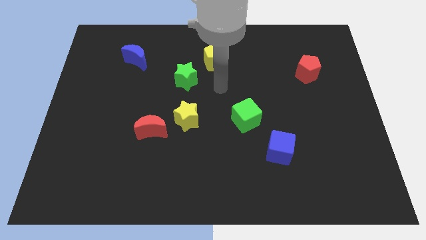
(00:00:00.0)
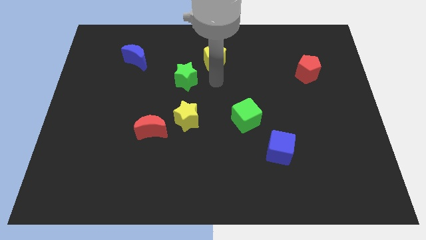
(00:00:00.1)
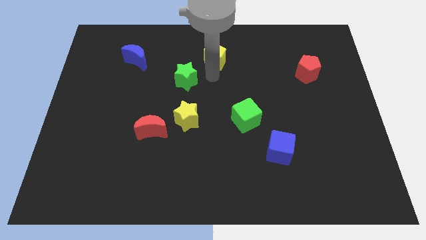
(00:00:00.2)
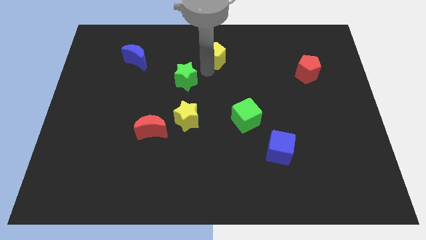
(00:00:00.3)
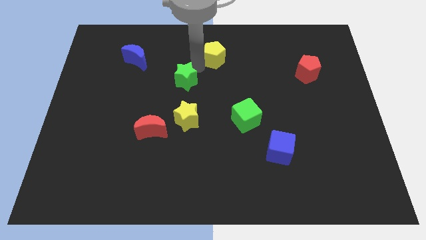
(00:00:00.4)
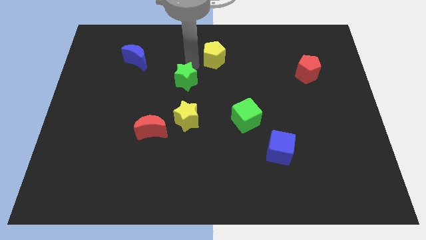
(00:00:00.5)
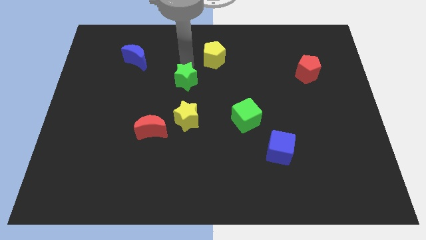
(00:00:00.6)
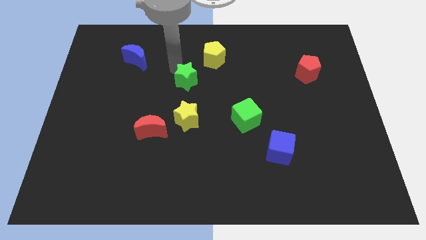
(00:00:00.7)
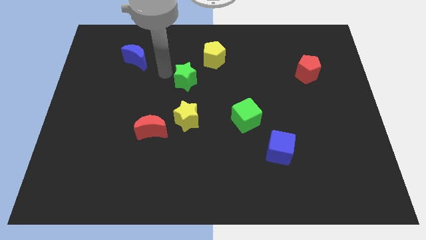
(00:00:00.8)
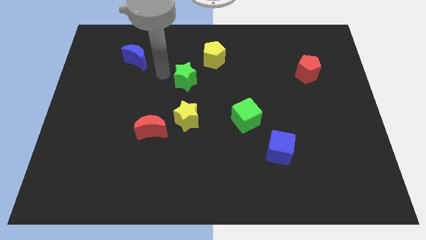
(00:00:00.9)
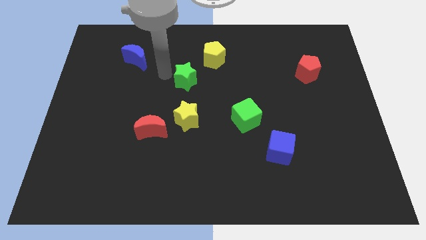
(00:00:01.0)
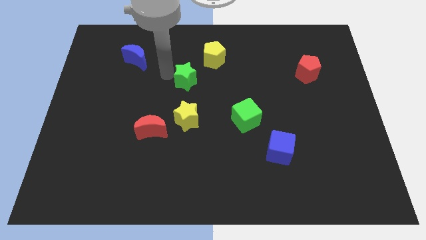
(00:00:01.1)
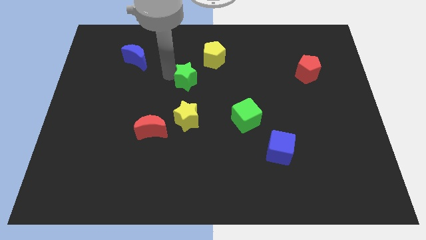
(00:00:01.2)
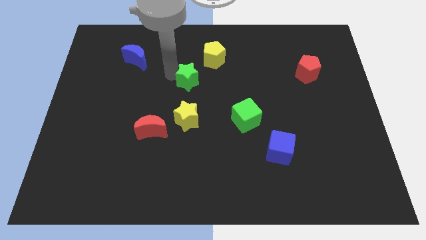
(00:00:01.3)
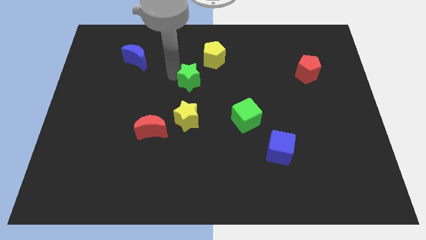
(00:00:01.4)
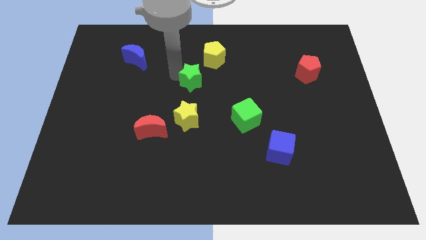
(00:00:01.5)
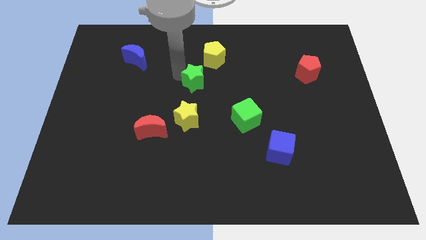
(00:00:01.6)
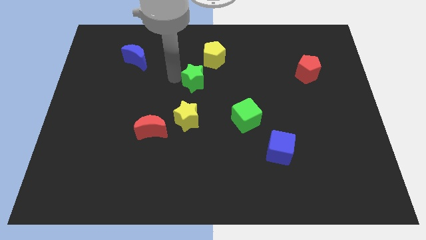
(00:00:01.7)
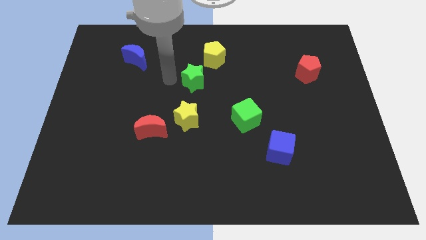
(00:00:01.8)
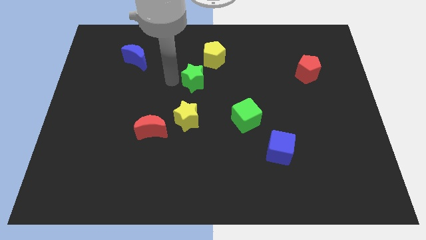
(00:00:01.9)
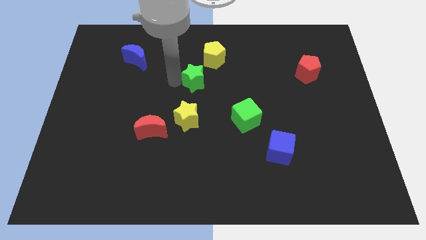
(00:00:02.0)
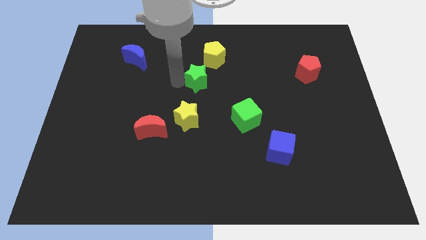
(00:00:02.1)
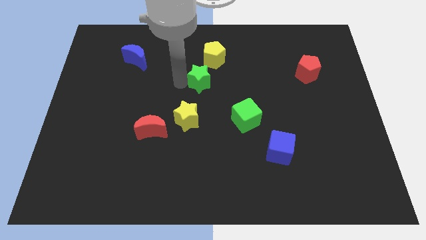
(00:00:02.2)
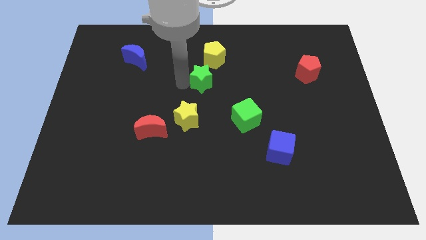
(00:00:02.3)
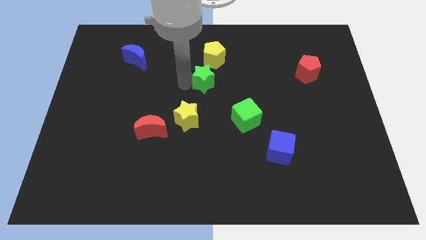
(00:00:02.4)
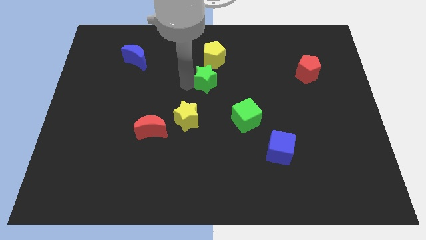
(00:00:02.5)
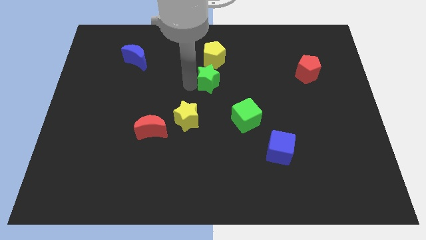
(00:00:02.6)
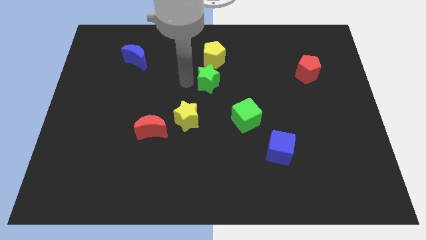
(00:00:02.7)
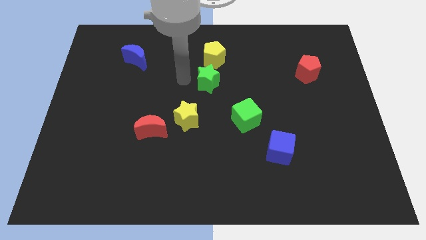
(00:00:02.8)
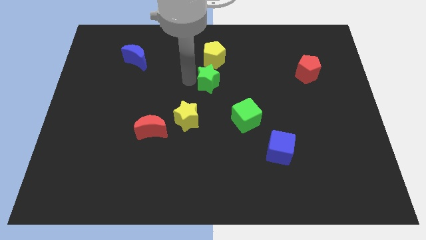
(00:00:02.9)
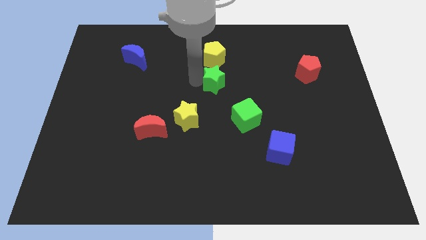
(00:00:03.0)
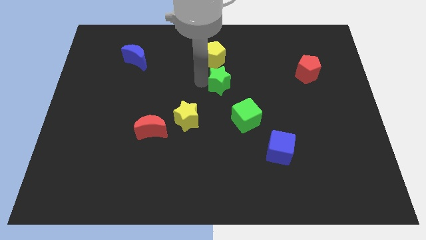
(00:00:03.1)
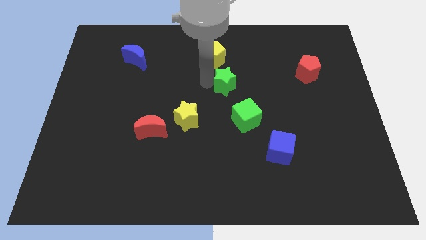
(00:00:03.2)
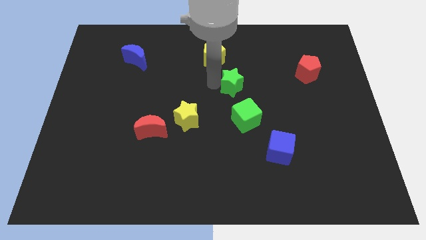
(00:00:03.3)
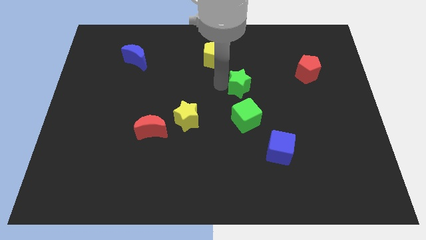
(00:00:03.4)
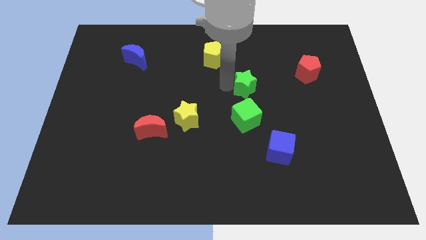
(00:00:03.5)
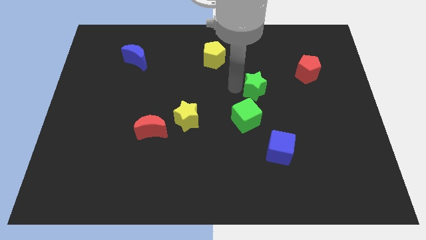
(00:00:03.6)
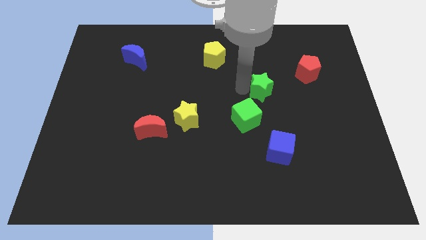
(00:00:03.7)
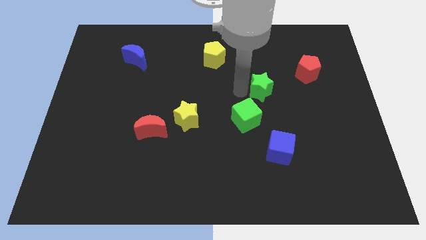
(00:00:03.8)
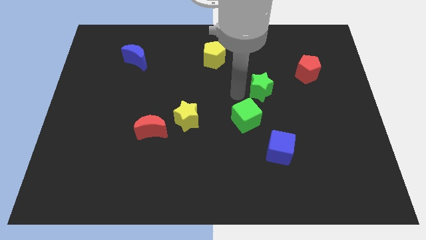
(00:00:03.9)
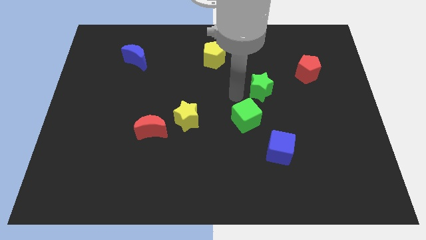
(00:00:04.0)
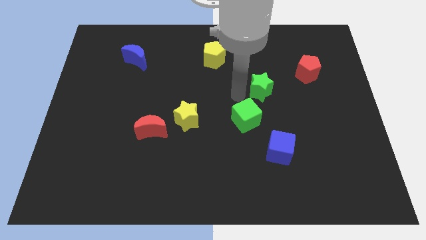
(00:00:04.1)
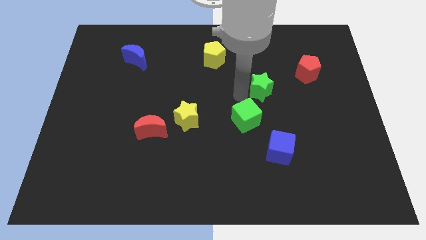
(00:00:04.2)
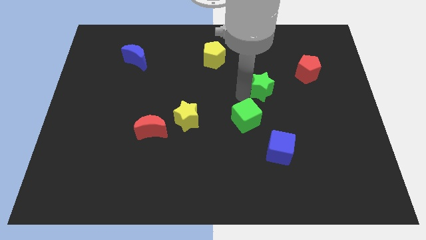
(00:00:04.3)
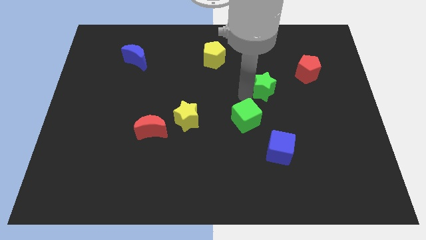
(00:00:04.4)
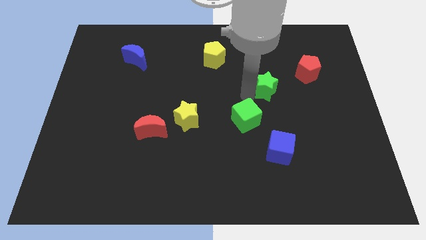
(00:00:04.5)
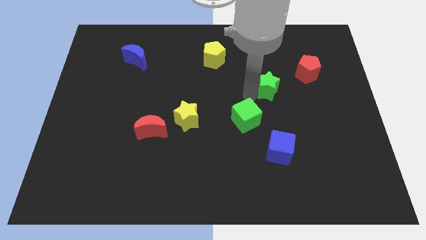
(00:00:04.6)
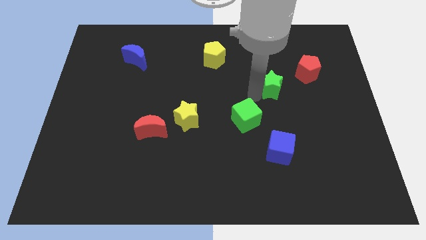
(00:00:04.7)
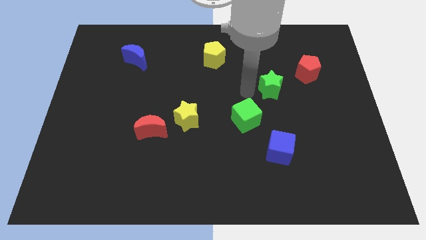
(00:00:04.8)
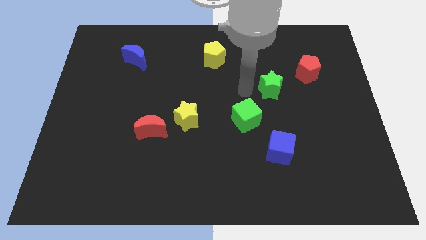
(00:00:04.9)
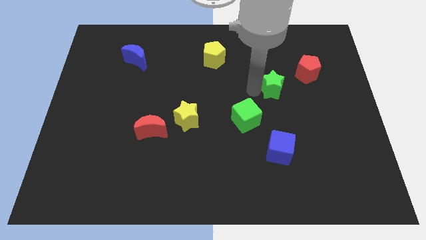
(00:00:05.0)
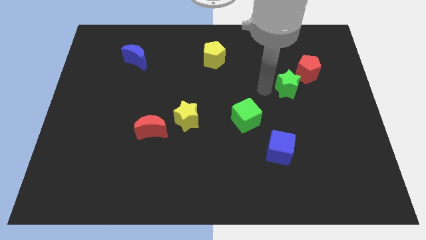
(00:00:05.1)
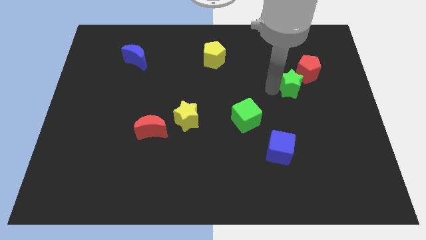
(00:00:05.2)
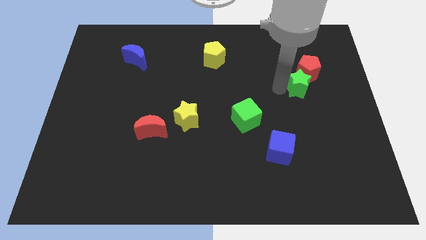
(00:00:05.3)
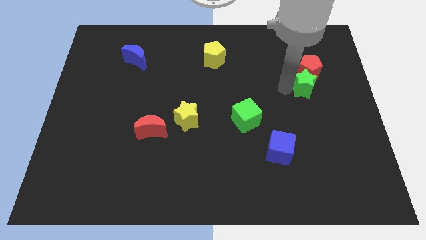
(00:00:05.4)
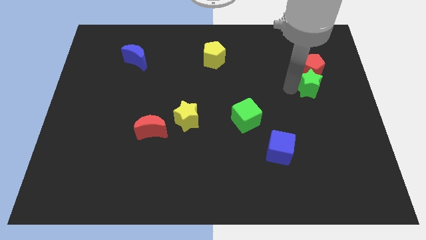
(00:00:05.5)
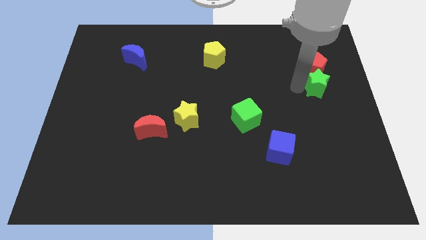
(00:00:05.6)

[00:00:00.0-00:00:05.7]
put the green star to the right side of the board

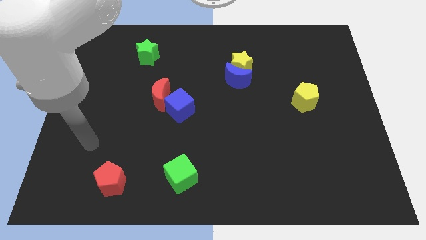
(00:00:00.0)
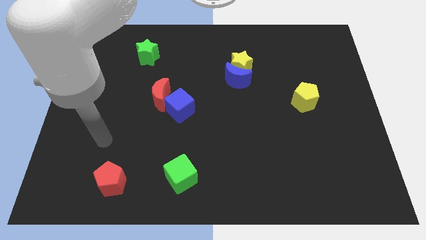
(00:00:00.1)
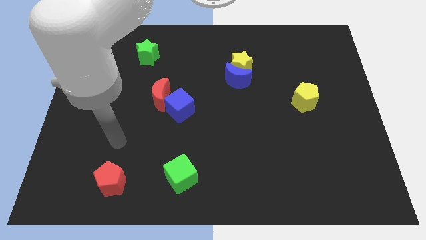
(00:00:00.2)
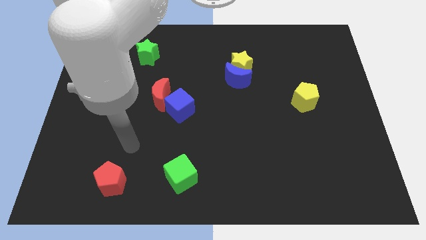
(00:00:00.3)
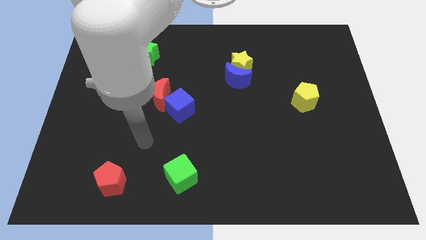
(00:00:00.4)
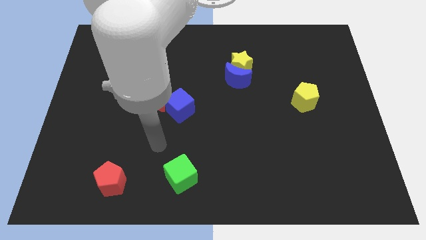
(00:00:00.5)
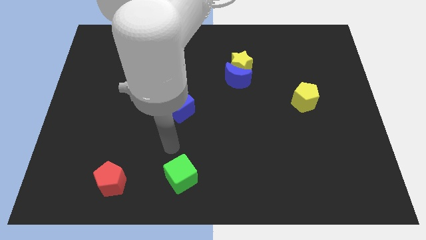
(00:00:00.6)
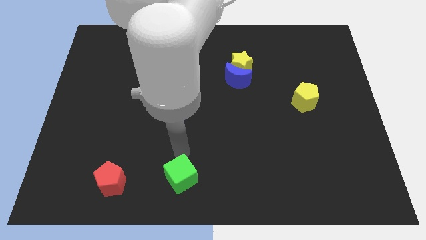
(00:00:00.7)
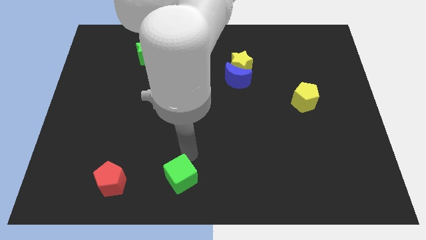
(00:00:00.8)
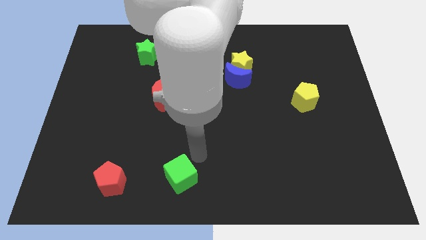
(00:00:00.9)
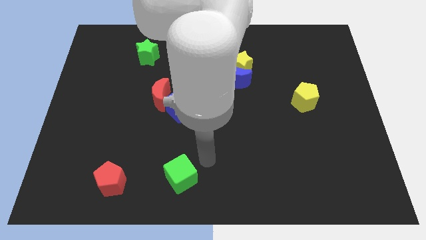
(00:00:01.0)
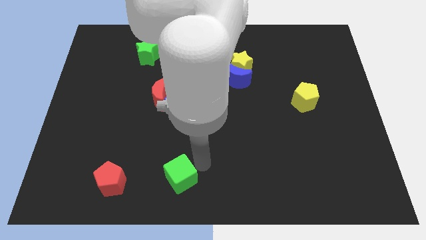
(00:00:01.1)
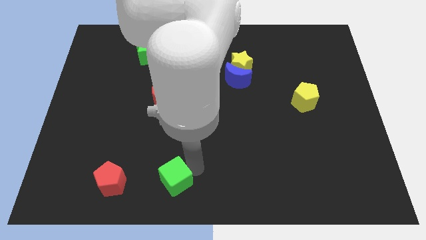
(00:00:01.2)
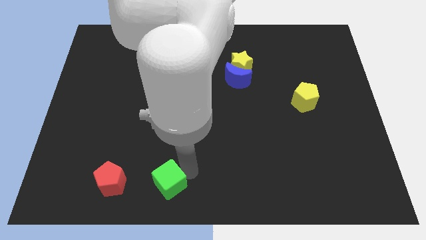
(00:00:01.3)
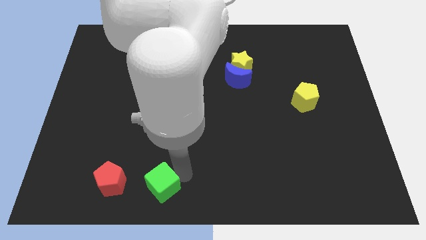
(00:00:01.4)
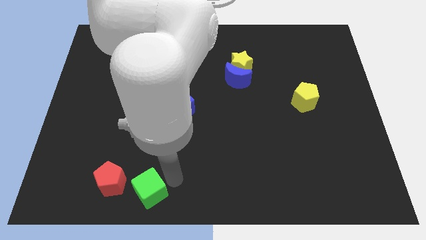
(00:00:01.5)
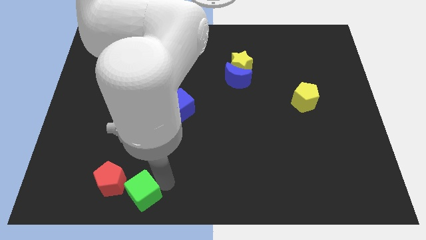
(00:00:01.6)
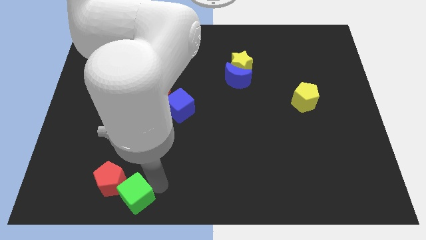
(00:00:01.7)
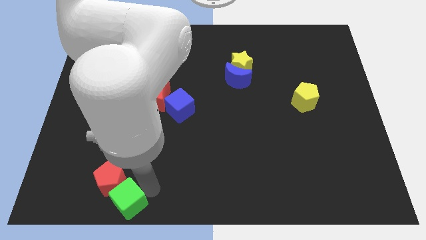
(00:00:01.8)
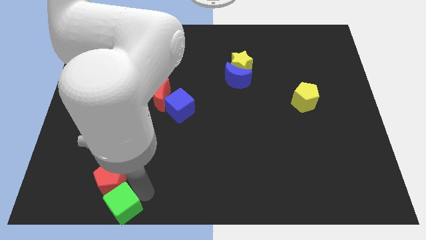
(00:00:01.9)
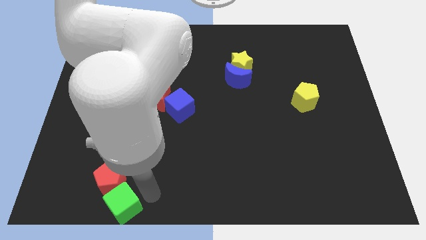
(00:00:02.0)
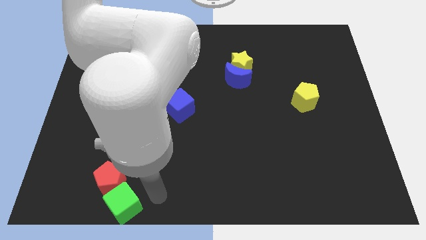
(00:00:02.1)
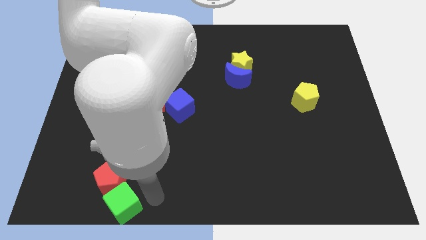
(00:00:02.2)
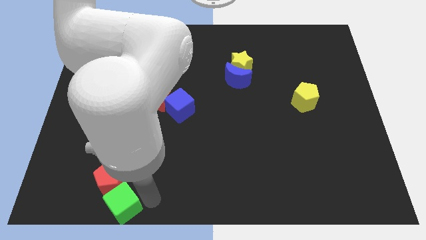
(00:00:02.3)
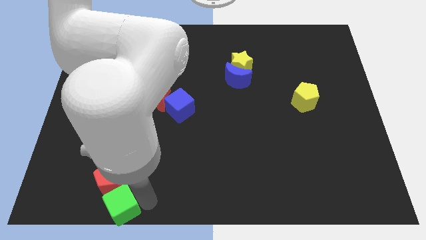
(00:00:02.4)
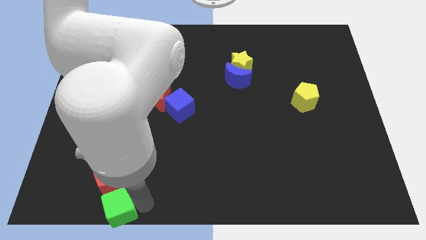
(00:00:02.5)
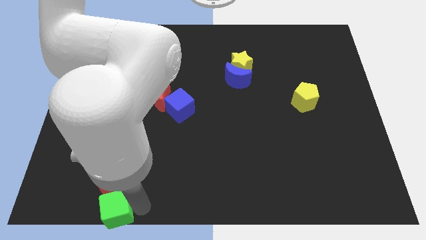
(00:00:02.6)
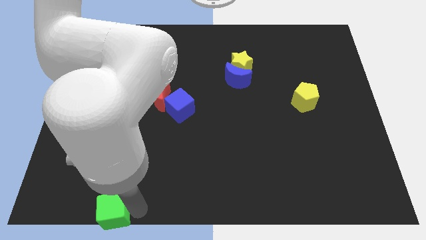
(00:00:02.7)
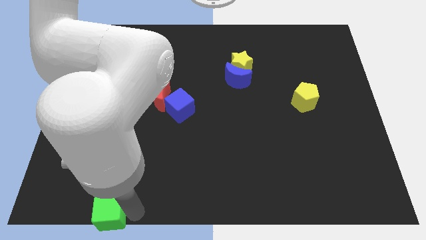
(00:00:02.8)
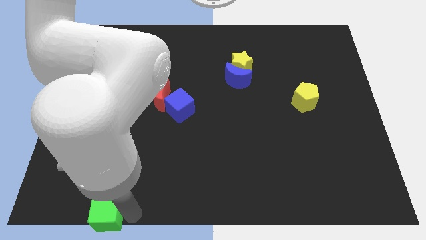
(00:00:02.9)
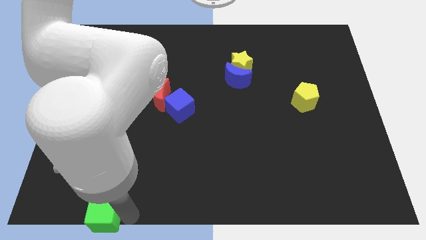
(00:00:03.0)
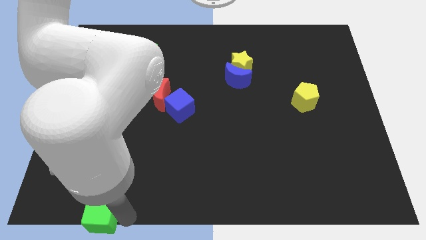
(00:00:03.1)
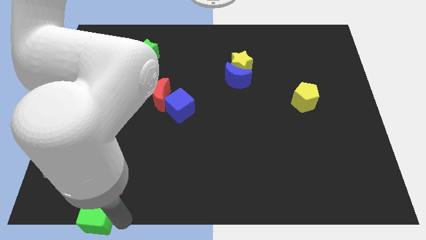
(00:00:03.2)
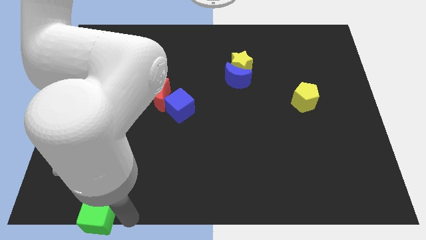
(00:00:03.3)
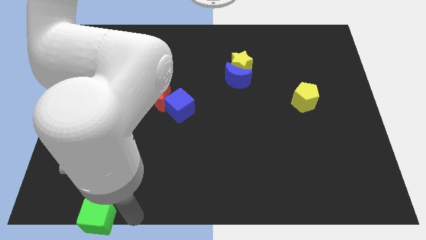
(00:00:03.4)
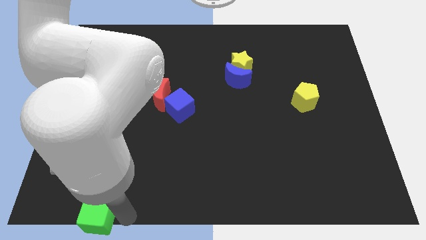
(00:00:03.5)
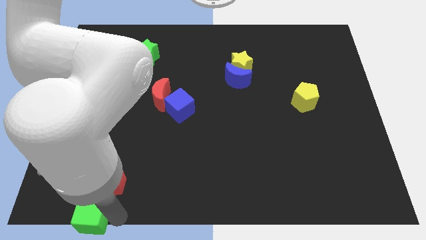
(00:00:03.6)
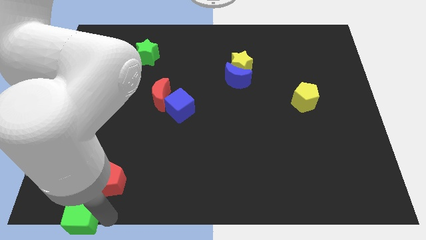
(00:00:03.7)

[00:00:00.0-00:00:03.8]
slide the green cube to the bottom left of the board
